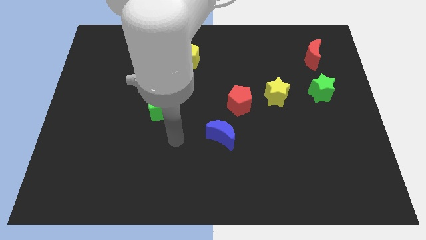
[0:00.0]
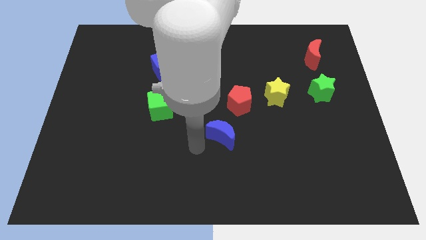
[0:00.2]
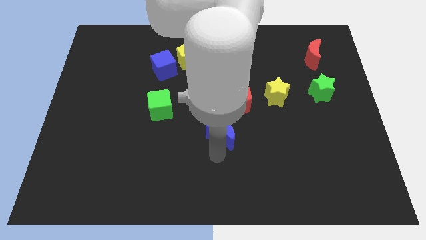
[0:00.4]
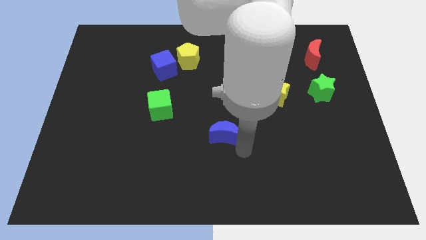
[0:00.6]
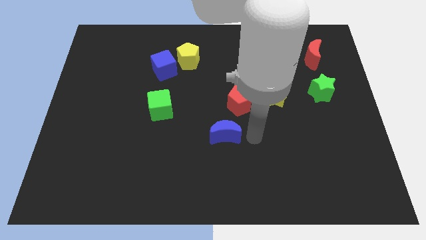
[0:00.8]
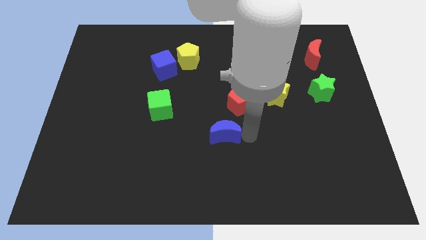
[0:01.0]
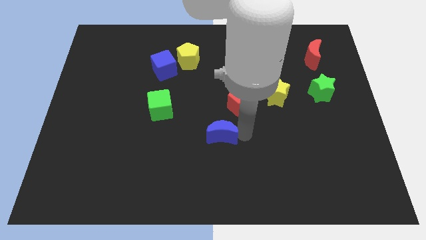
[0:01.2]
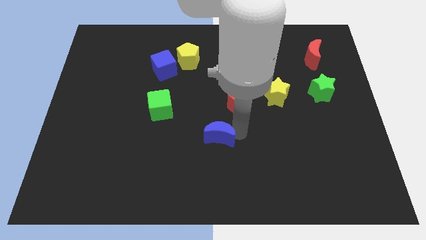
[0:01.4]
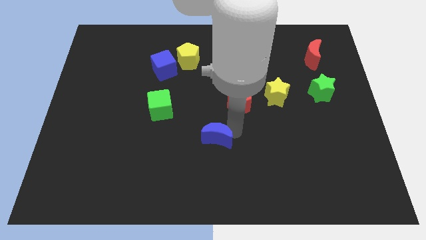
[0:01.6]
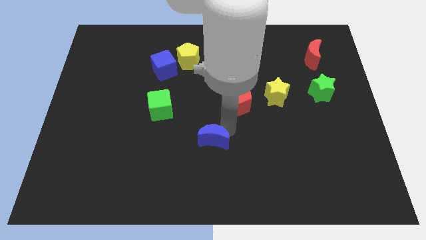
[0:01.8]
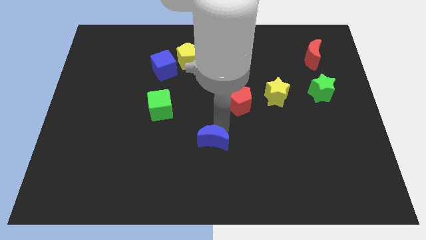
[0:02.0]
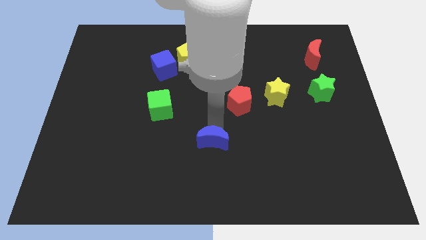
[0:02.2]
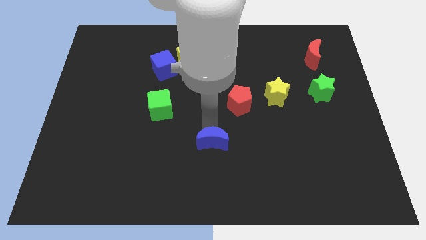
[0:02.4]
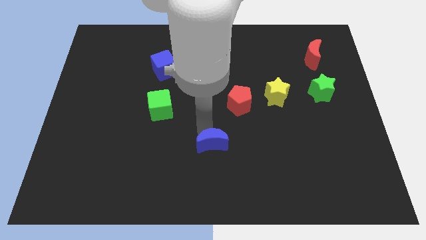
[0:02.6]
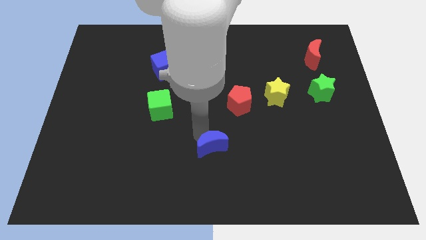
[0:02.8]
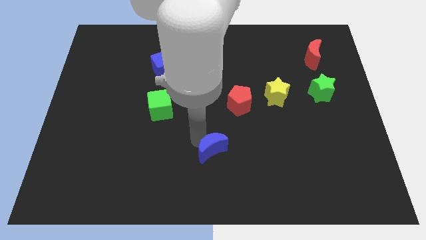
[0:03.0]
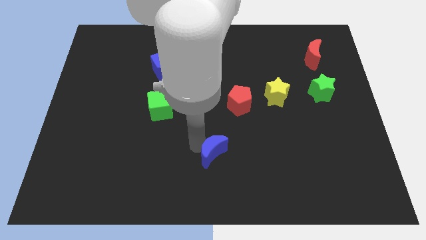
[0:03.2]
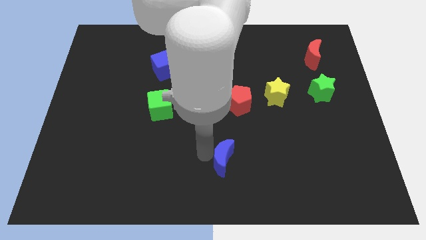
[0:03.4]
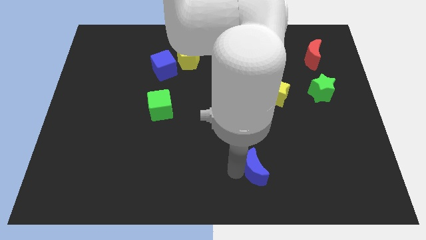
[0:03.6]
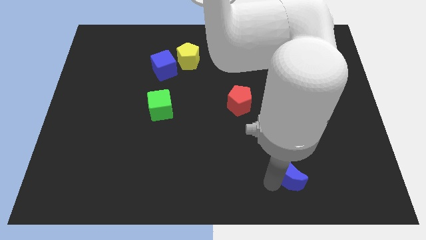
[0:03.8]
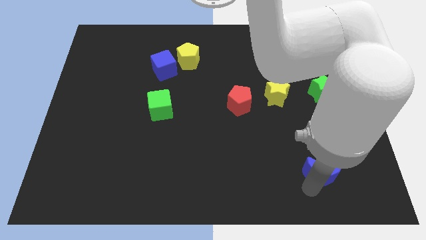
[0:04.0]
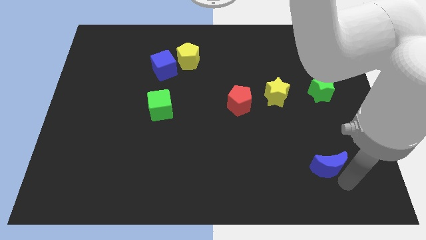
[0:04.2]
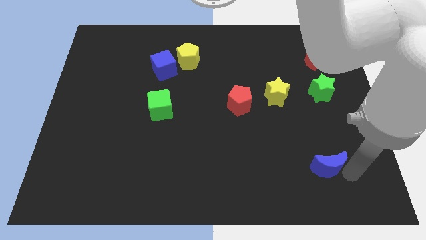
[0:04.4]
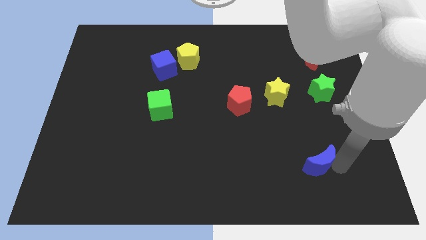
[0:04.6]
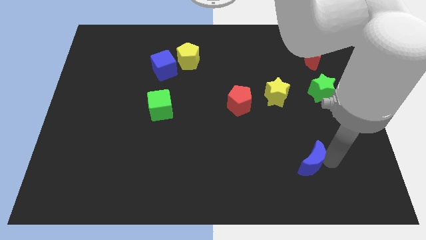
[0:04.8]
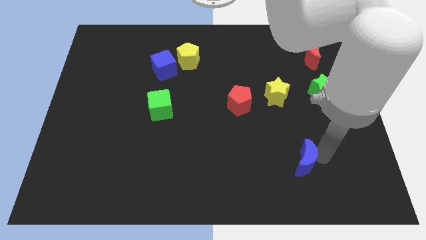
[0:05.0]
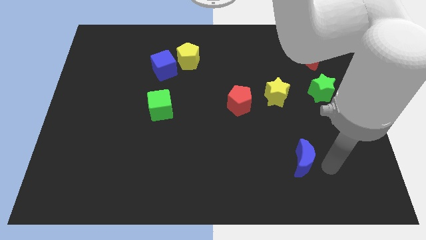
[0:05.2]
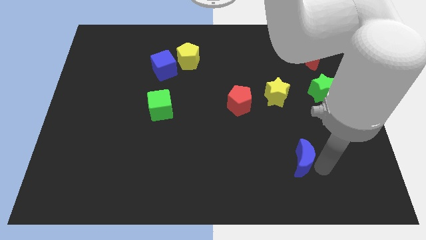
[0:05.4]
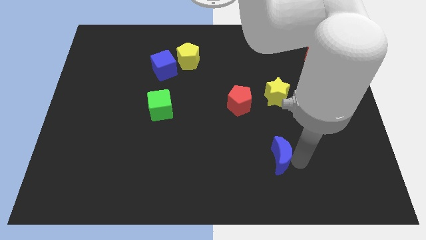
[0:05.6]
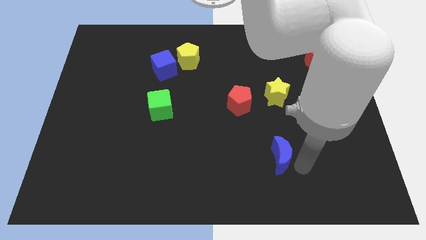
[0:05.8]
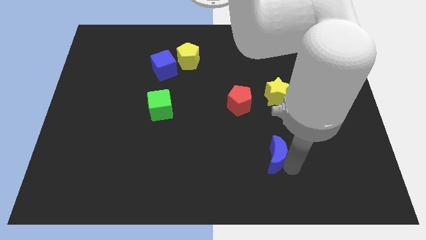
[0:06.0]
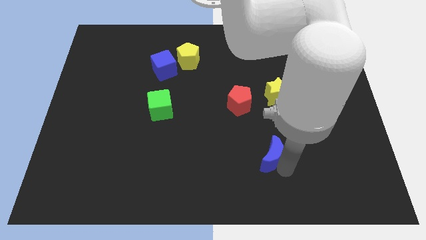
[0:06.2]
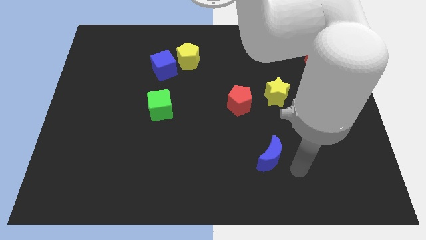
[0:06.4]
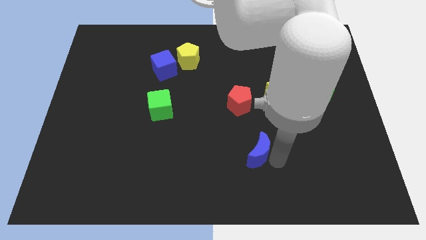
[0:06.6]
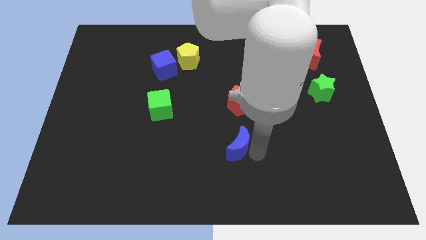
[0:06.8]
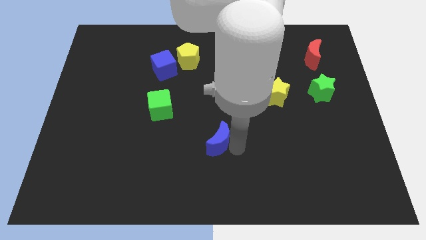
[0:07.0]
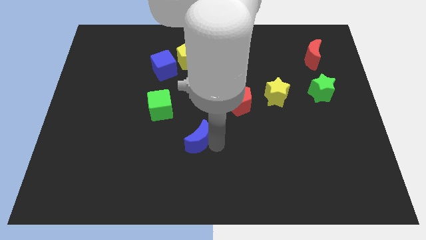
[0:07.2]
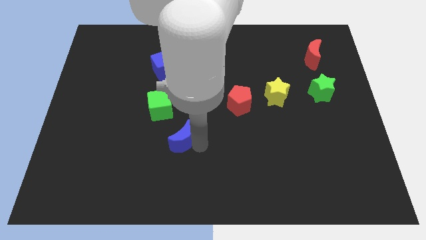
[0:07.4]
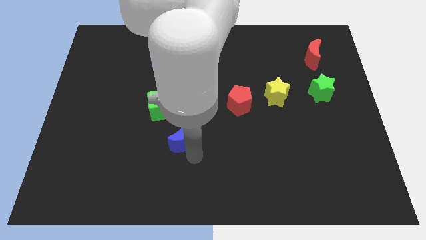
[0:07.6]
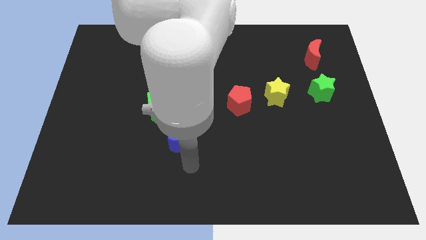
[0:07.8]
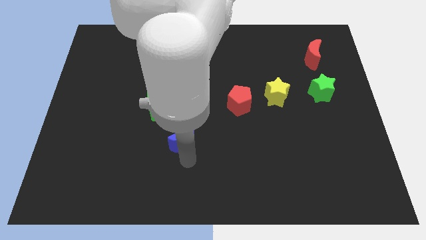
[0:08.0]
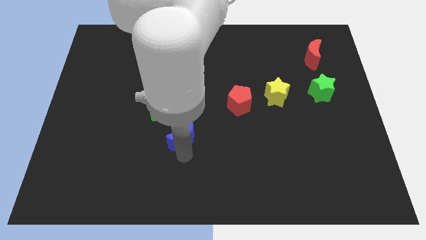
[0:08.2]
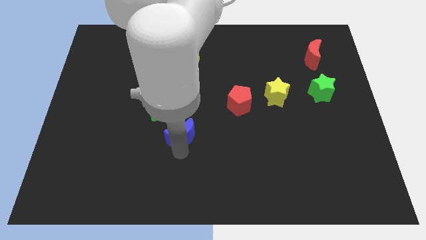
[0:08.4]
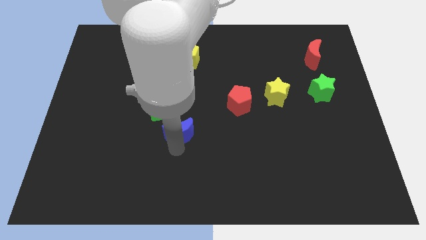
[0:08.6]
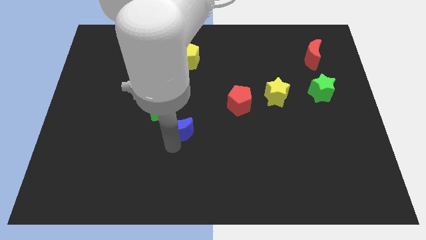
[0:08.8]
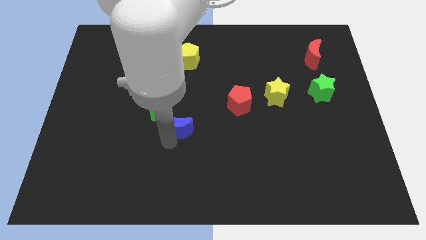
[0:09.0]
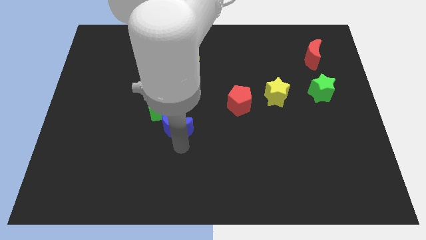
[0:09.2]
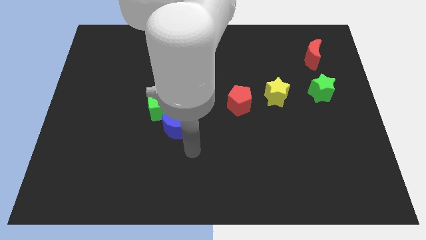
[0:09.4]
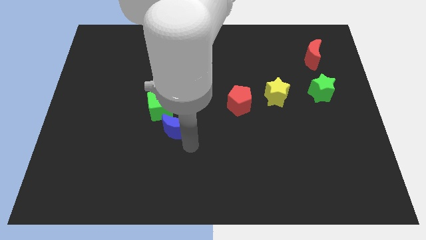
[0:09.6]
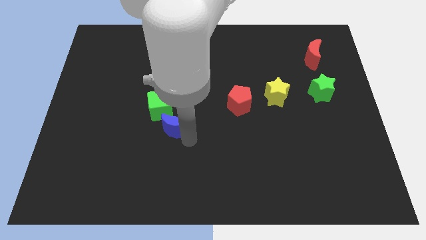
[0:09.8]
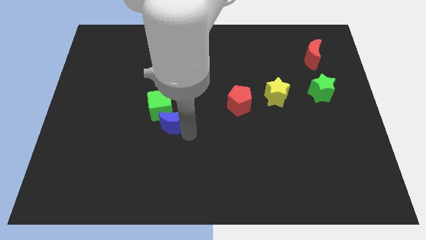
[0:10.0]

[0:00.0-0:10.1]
put the blue moon next to the green cube

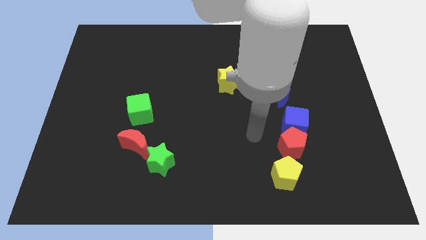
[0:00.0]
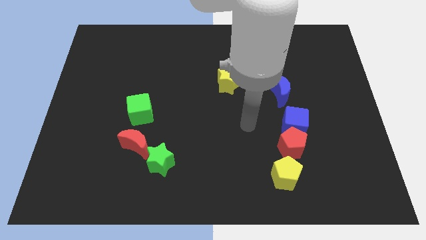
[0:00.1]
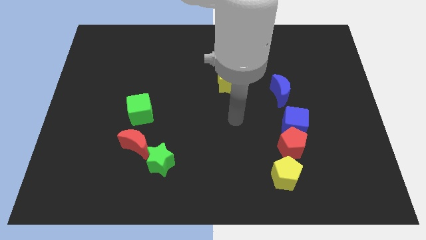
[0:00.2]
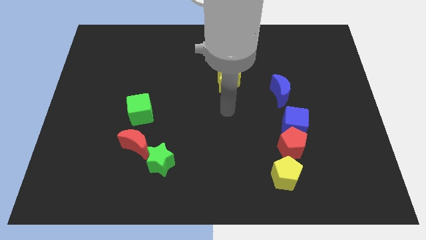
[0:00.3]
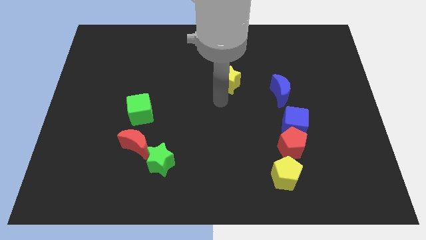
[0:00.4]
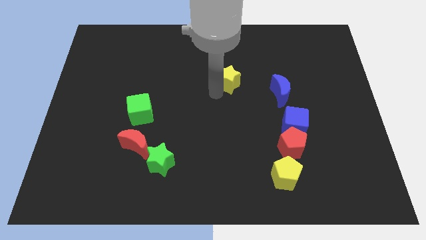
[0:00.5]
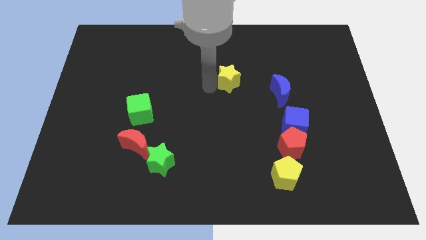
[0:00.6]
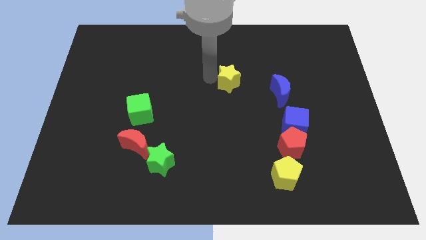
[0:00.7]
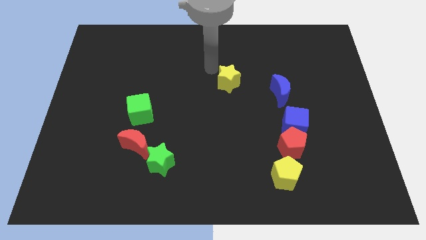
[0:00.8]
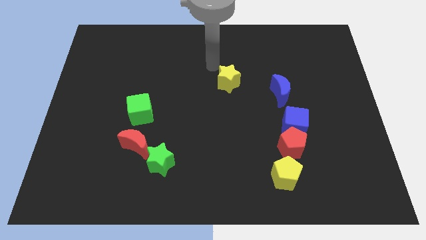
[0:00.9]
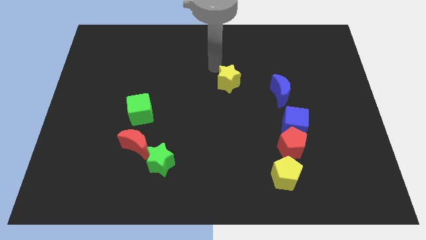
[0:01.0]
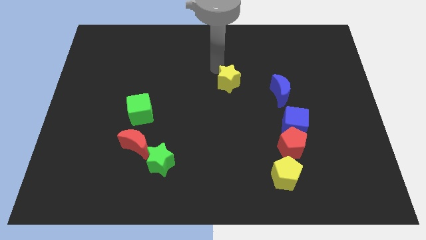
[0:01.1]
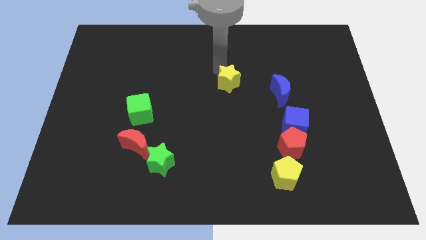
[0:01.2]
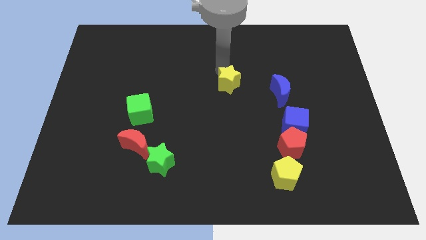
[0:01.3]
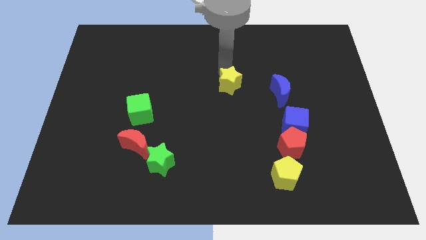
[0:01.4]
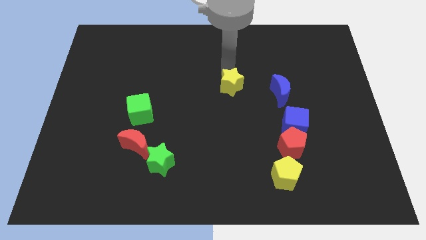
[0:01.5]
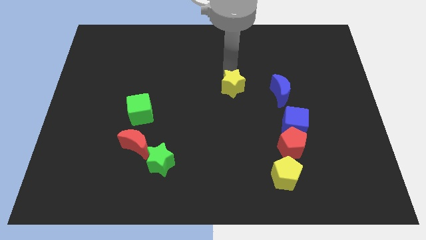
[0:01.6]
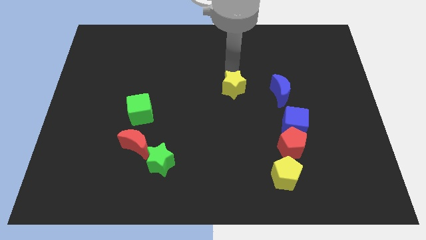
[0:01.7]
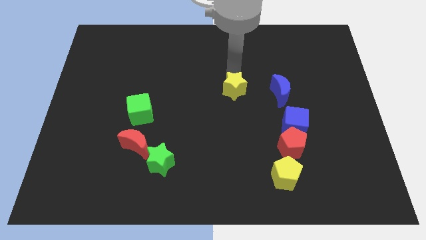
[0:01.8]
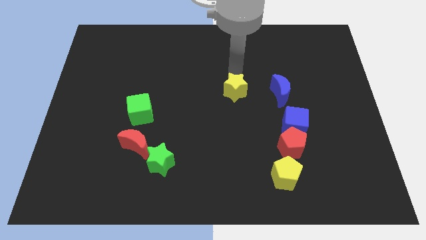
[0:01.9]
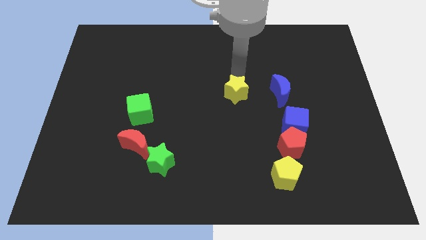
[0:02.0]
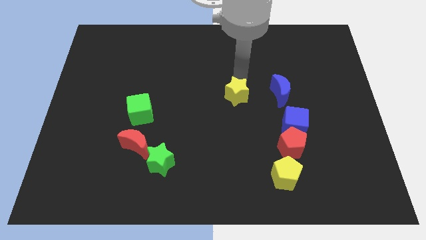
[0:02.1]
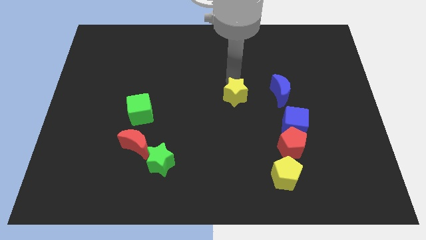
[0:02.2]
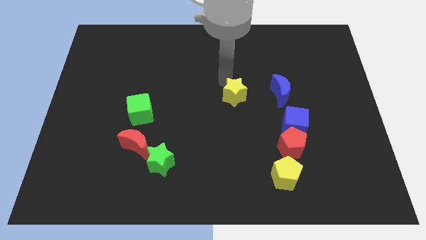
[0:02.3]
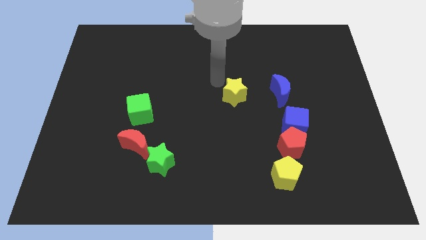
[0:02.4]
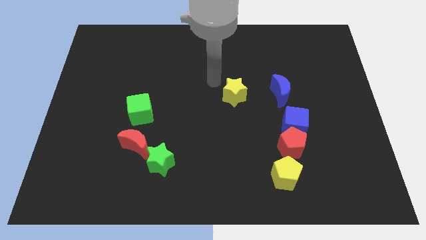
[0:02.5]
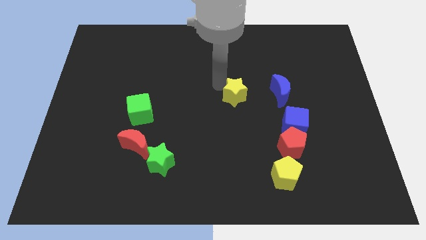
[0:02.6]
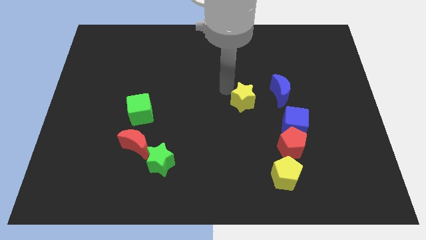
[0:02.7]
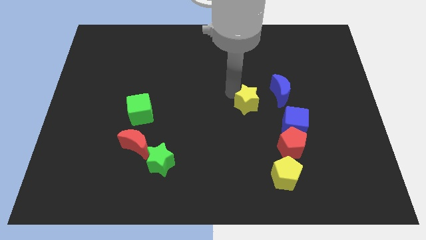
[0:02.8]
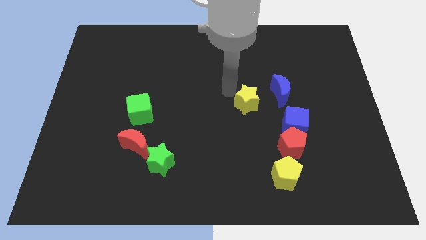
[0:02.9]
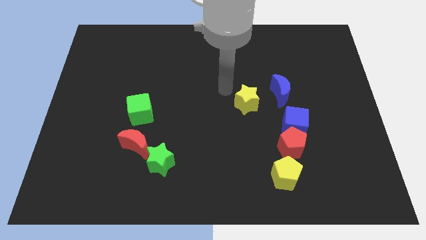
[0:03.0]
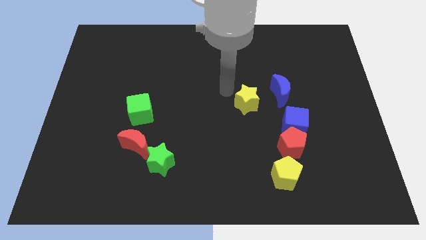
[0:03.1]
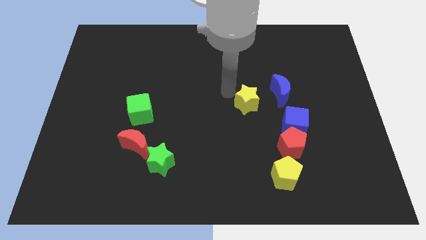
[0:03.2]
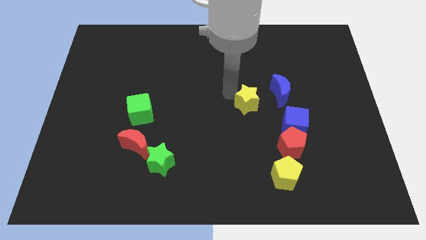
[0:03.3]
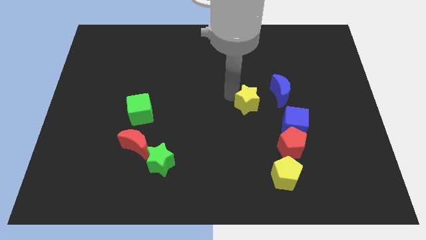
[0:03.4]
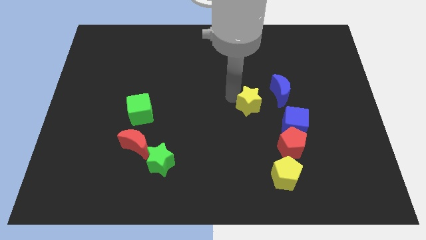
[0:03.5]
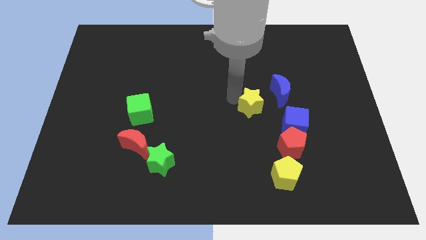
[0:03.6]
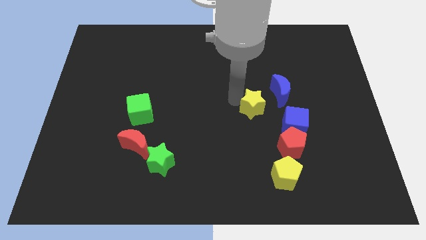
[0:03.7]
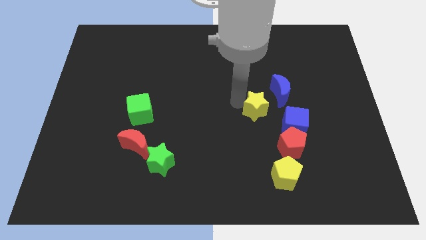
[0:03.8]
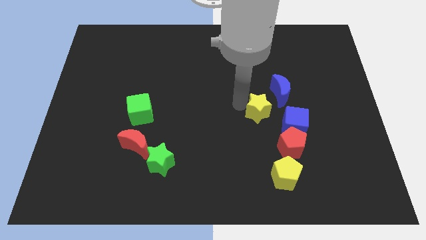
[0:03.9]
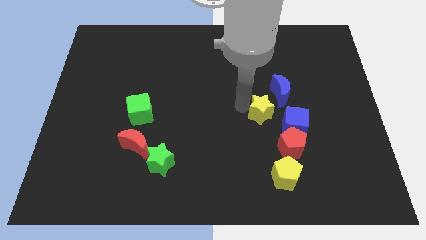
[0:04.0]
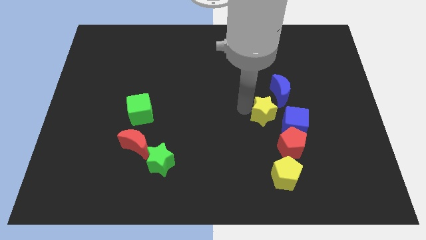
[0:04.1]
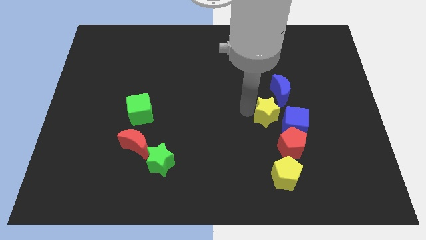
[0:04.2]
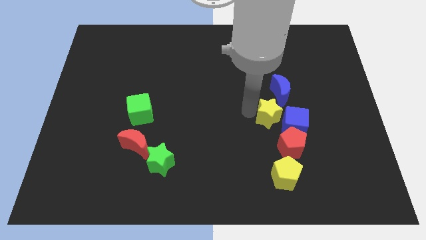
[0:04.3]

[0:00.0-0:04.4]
put the yellow star close to the blue cube
